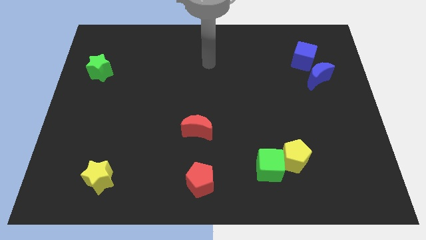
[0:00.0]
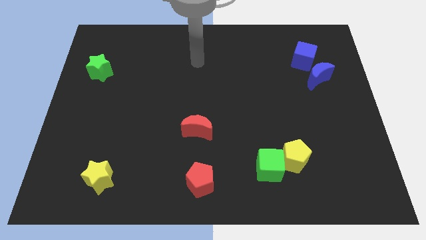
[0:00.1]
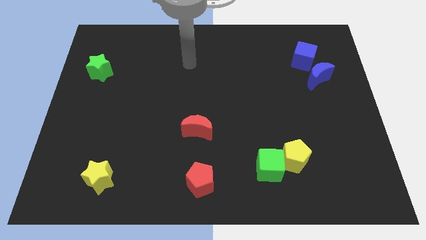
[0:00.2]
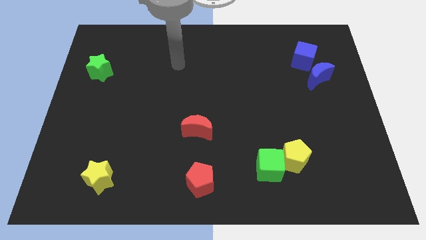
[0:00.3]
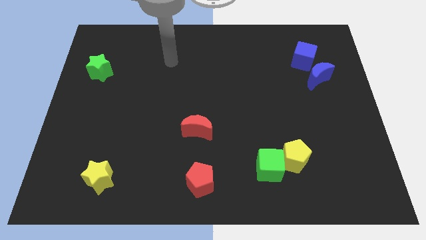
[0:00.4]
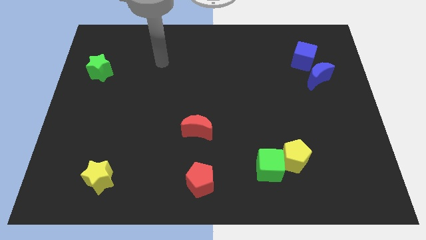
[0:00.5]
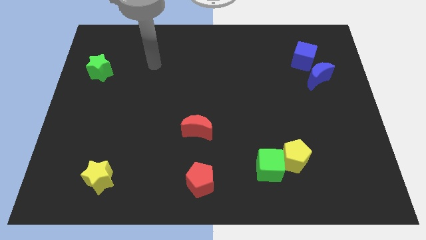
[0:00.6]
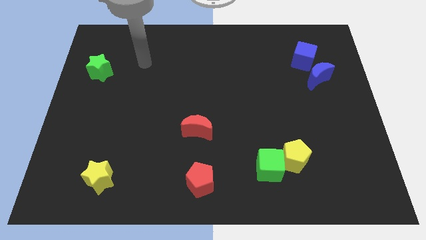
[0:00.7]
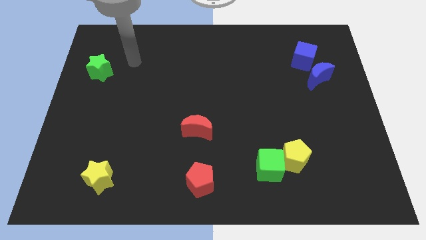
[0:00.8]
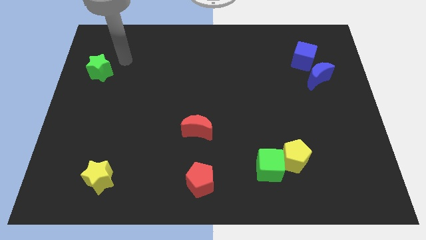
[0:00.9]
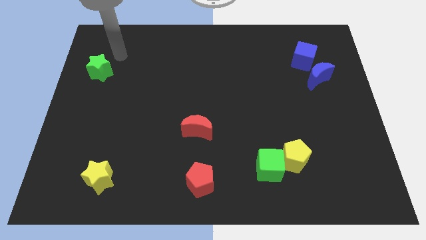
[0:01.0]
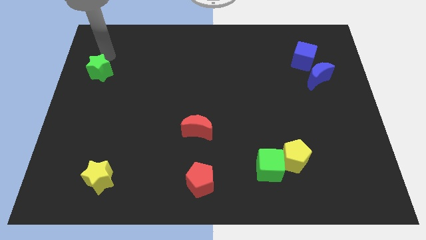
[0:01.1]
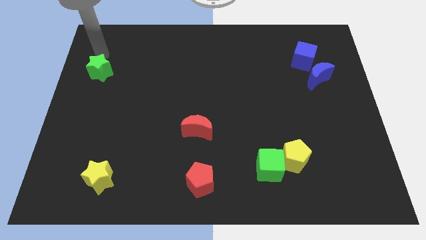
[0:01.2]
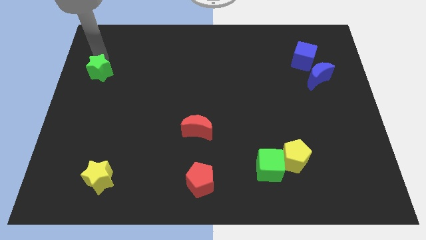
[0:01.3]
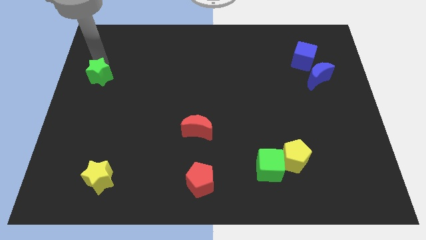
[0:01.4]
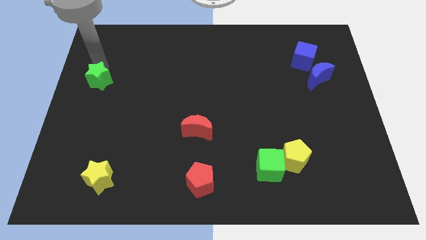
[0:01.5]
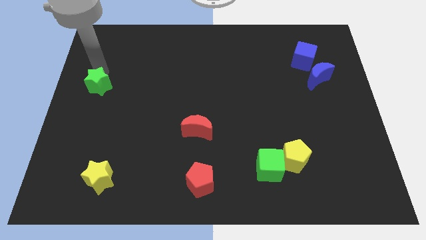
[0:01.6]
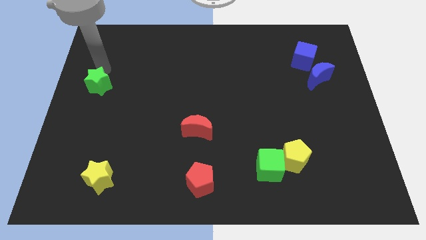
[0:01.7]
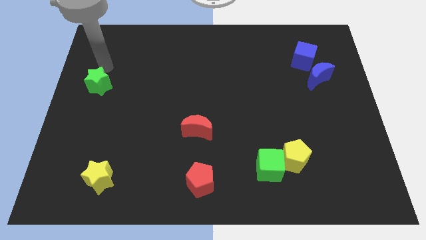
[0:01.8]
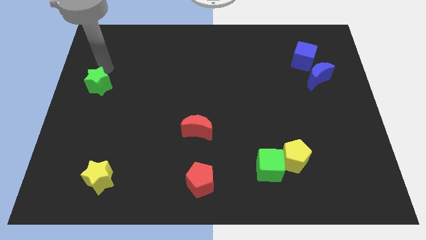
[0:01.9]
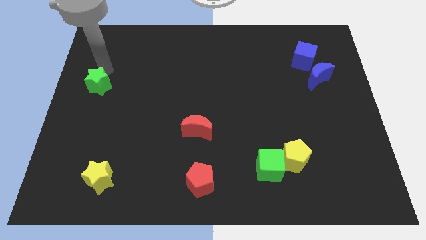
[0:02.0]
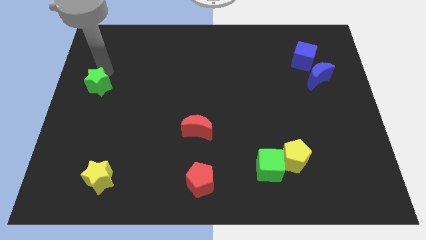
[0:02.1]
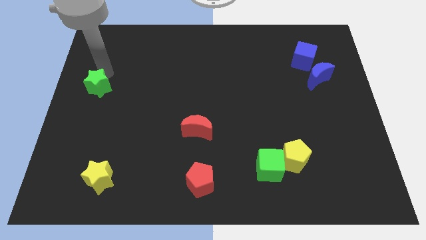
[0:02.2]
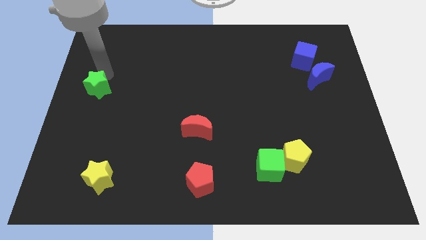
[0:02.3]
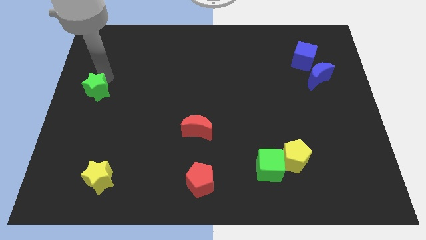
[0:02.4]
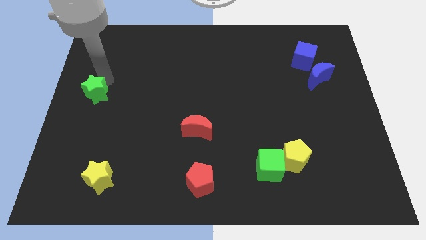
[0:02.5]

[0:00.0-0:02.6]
push the green star a little down

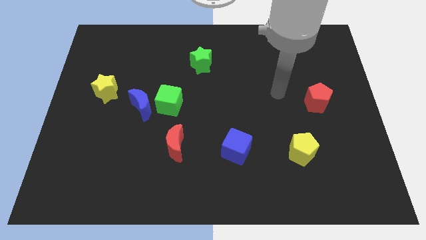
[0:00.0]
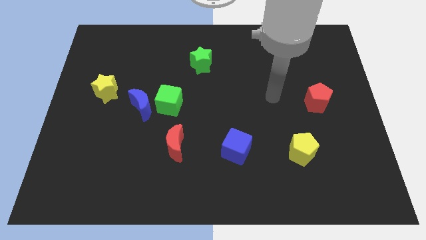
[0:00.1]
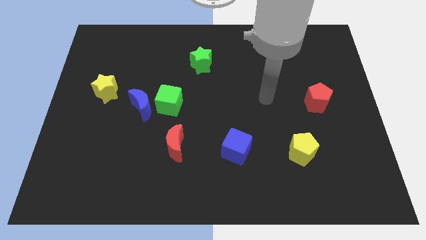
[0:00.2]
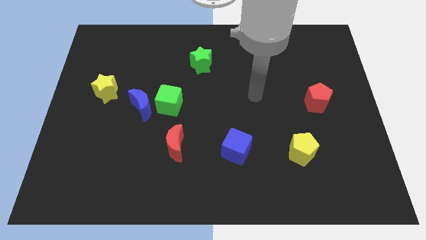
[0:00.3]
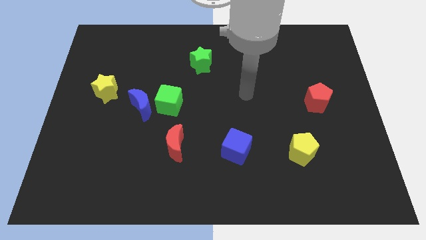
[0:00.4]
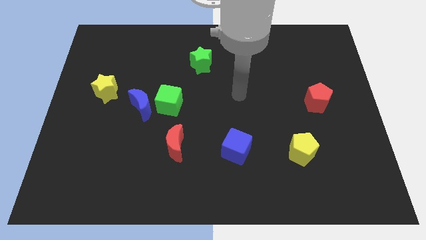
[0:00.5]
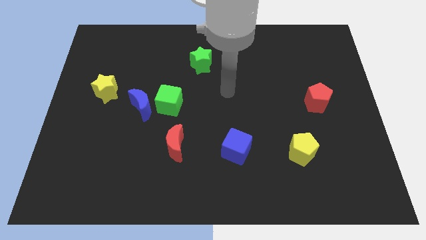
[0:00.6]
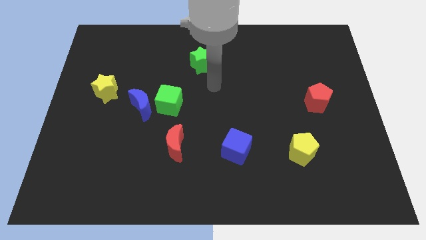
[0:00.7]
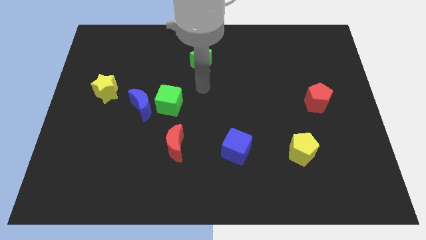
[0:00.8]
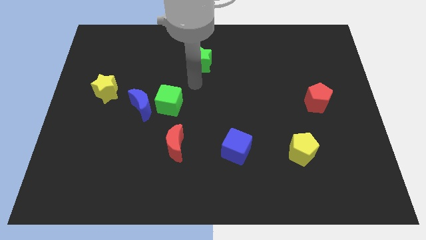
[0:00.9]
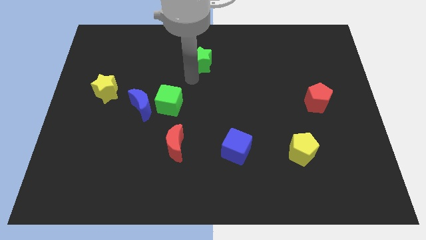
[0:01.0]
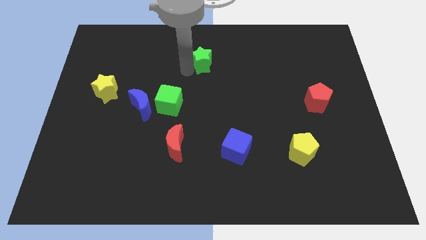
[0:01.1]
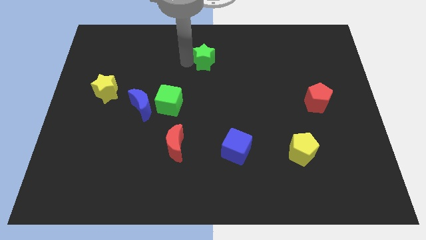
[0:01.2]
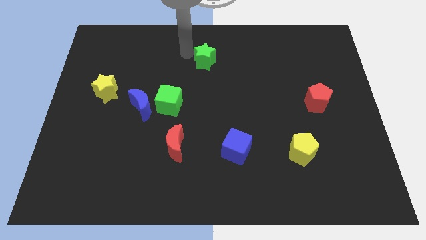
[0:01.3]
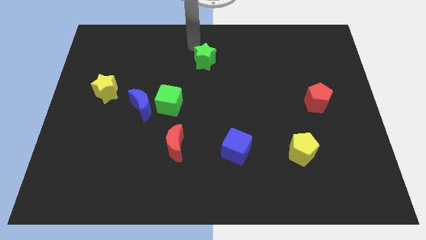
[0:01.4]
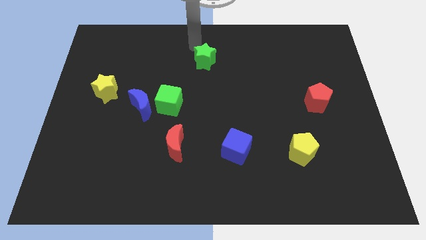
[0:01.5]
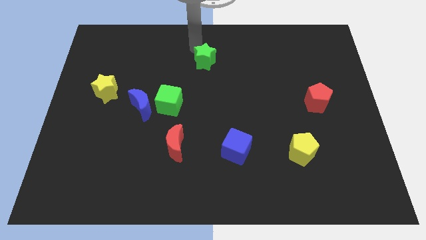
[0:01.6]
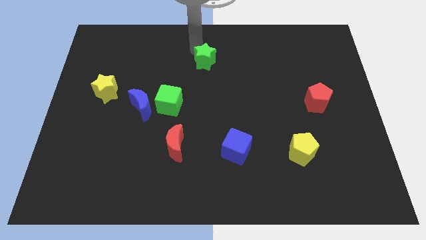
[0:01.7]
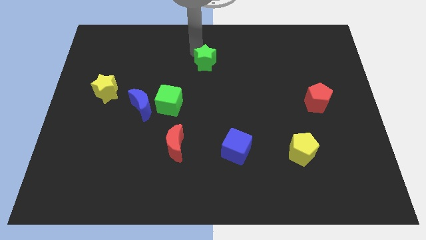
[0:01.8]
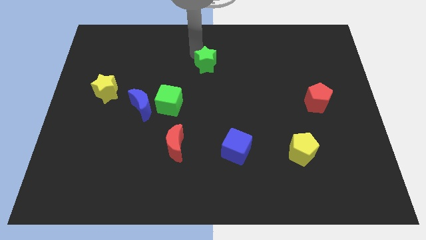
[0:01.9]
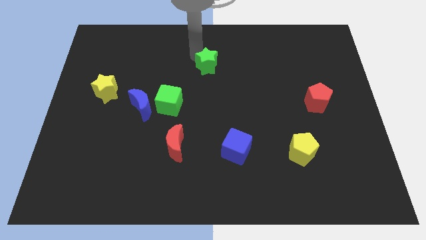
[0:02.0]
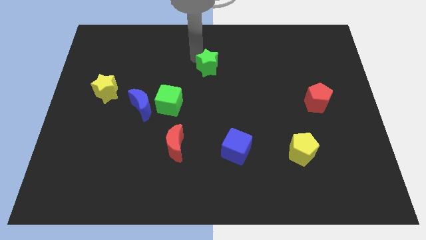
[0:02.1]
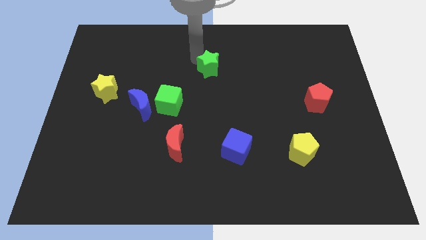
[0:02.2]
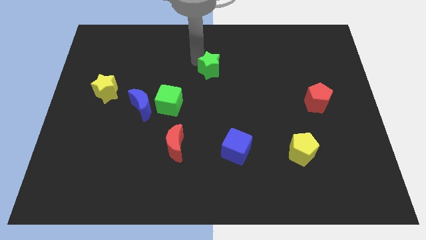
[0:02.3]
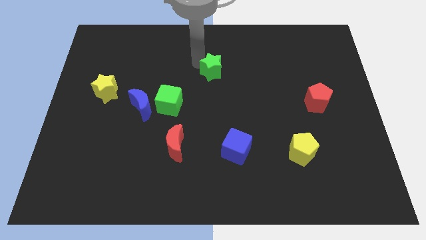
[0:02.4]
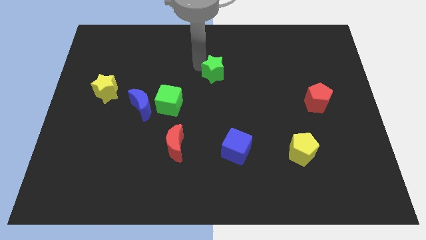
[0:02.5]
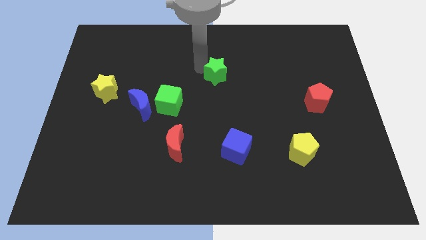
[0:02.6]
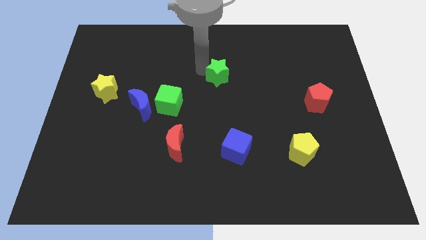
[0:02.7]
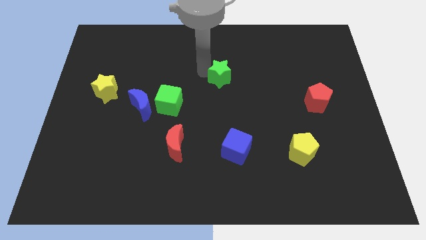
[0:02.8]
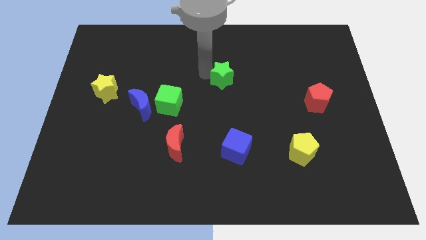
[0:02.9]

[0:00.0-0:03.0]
slide the green star downwards and to the right a bit

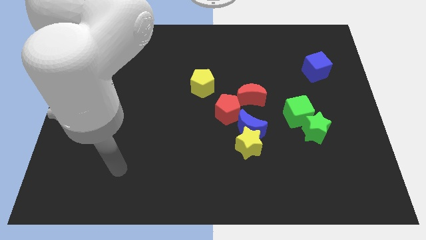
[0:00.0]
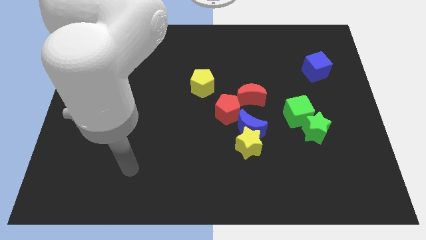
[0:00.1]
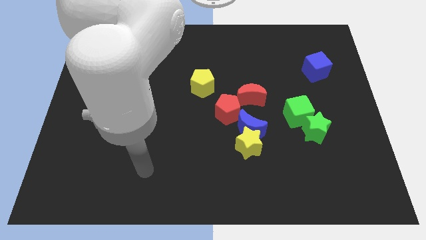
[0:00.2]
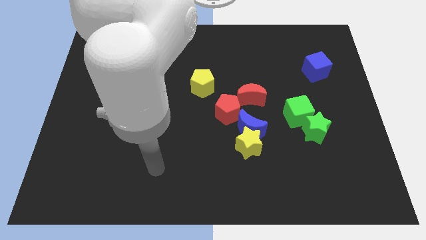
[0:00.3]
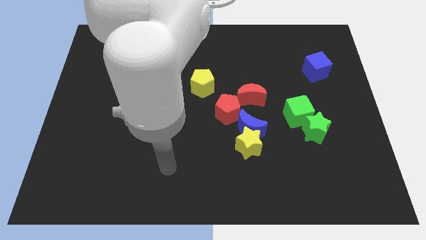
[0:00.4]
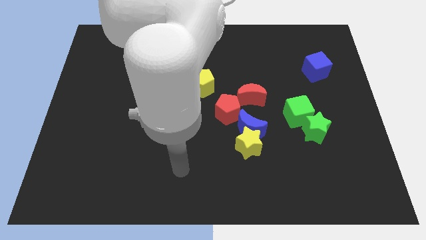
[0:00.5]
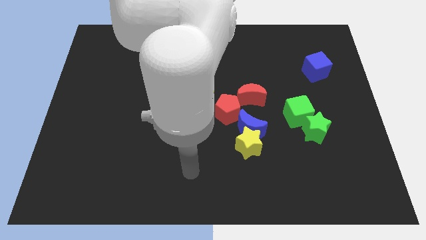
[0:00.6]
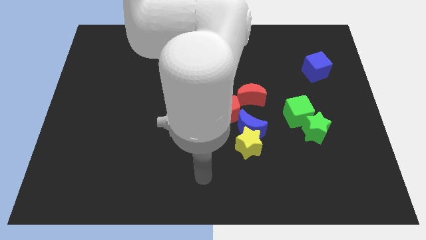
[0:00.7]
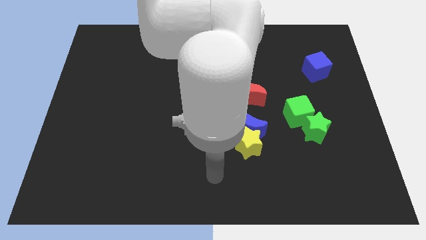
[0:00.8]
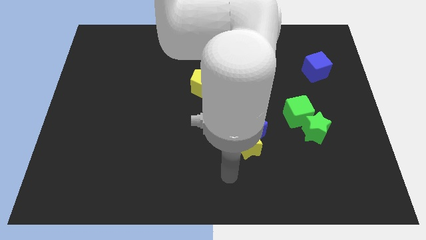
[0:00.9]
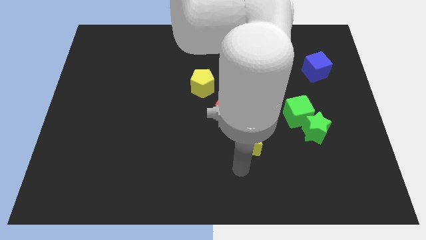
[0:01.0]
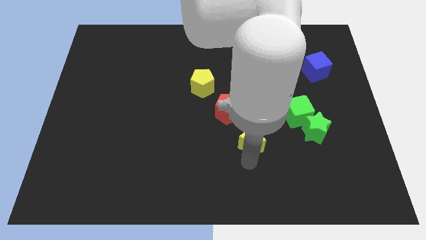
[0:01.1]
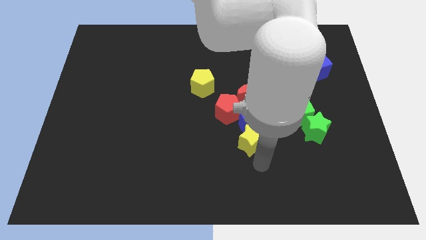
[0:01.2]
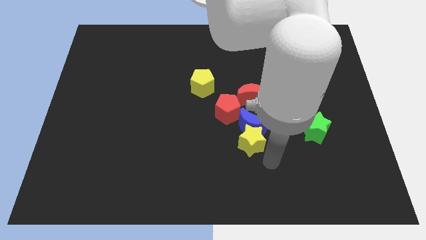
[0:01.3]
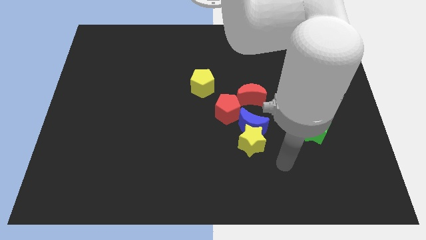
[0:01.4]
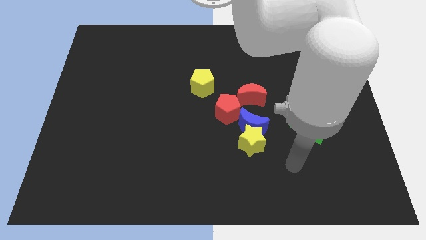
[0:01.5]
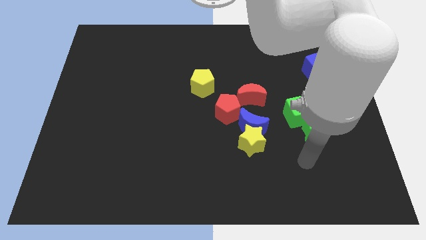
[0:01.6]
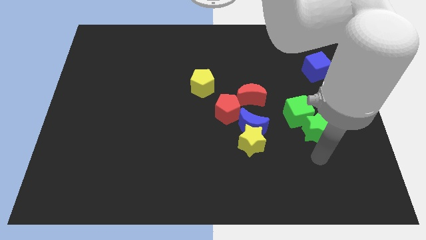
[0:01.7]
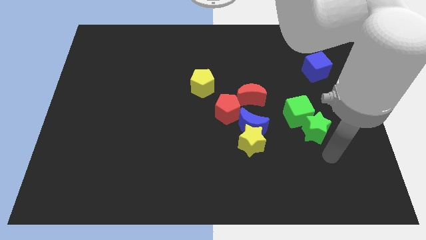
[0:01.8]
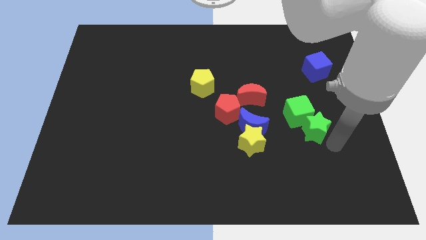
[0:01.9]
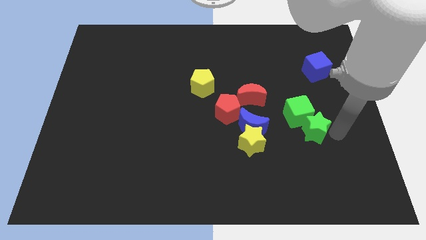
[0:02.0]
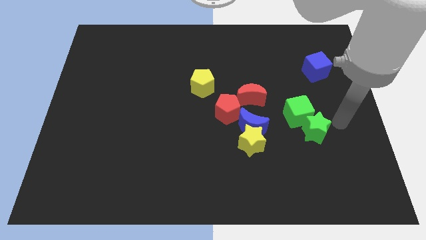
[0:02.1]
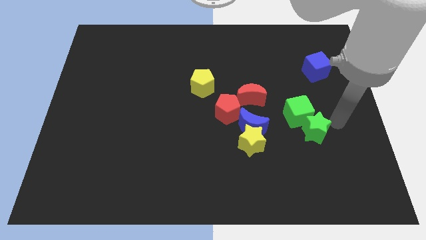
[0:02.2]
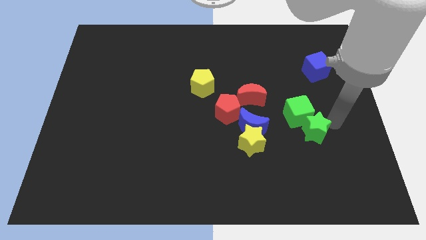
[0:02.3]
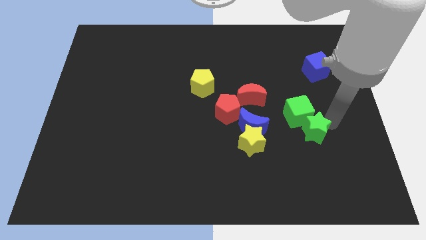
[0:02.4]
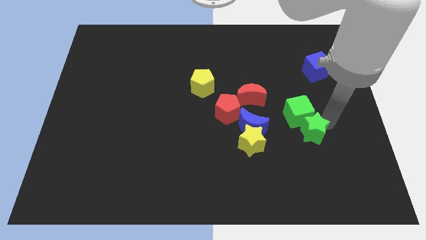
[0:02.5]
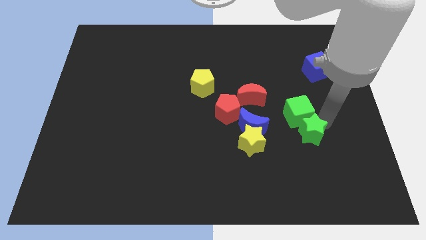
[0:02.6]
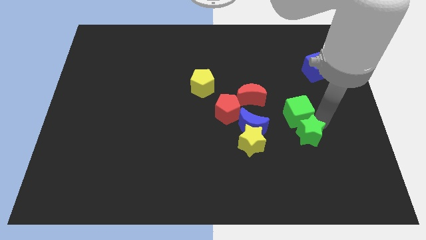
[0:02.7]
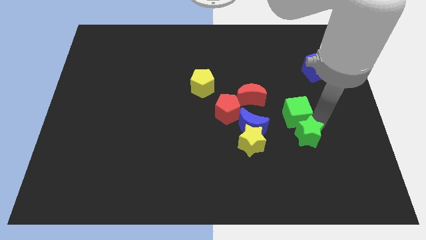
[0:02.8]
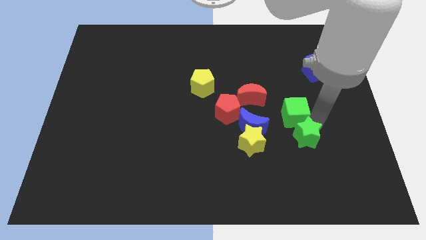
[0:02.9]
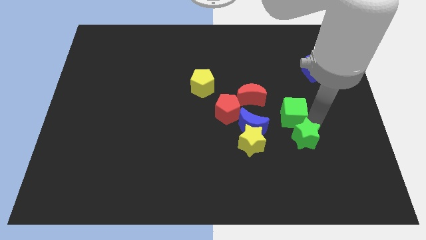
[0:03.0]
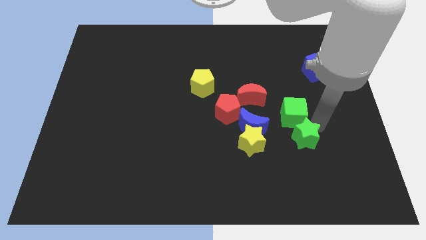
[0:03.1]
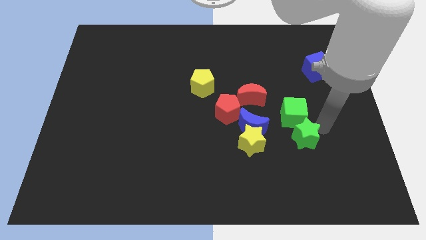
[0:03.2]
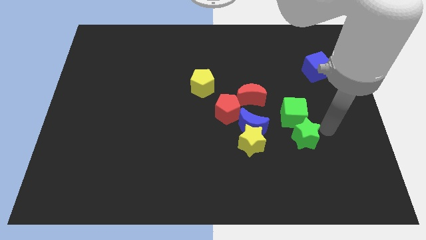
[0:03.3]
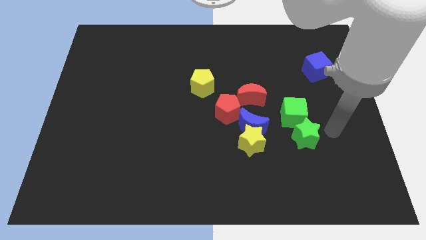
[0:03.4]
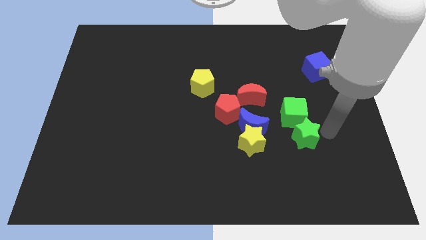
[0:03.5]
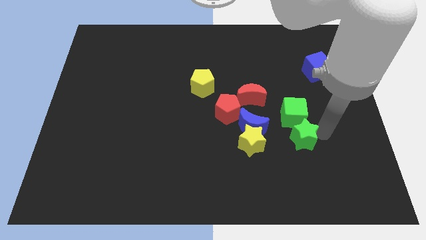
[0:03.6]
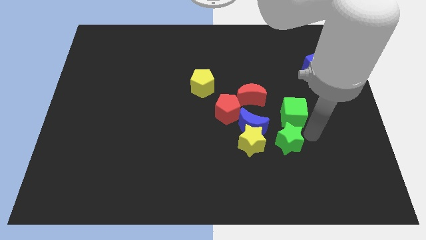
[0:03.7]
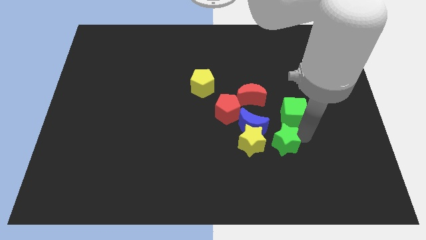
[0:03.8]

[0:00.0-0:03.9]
slightly move the green star to the left
